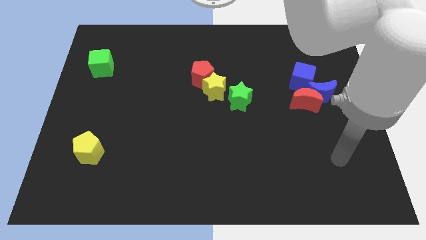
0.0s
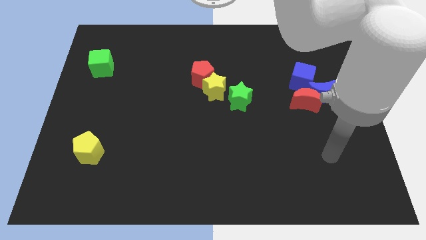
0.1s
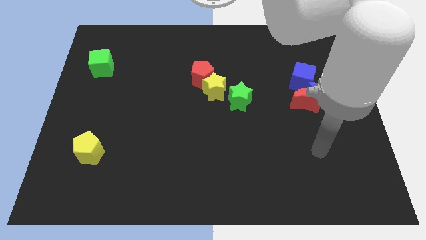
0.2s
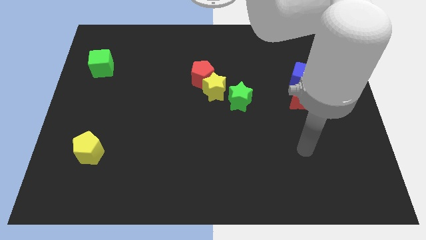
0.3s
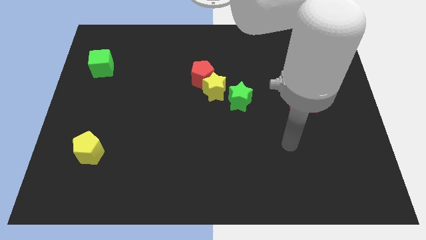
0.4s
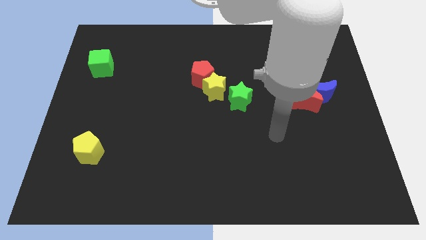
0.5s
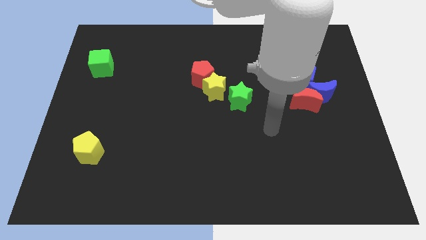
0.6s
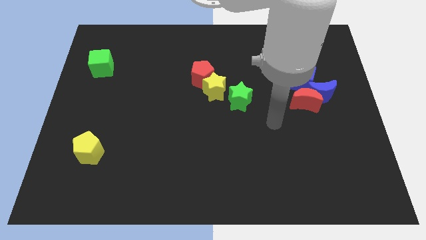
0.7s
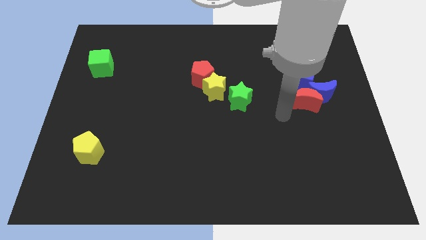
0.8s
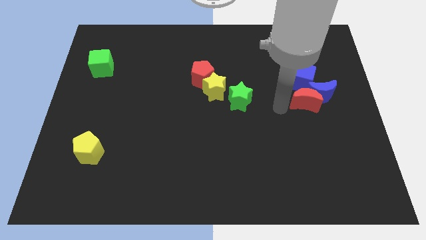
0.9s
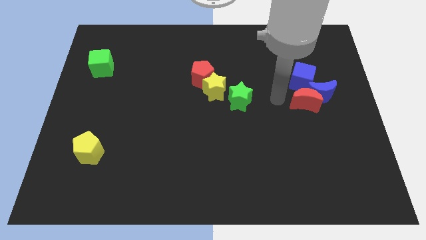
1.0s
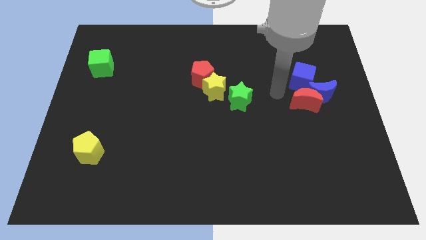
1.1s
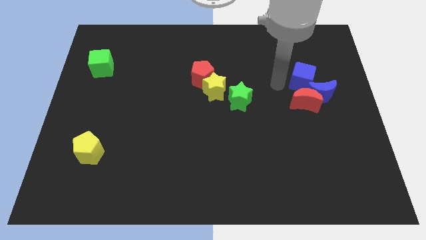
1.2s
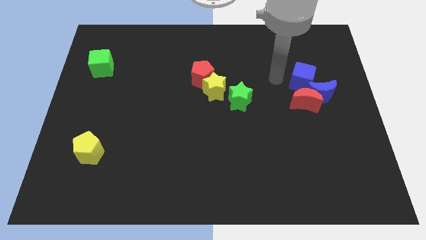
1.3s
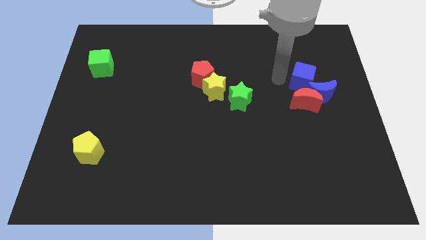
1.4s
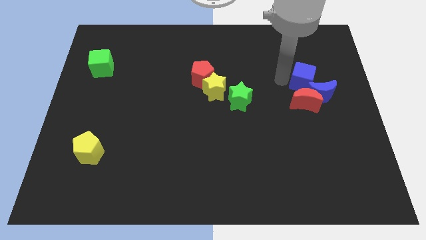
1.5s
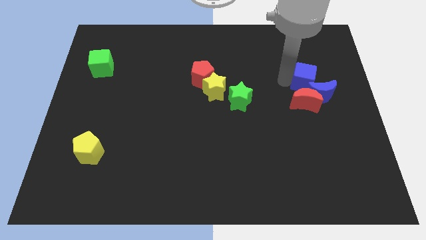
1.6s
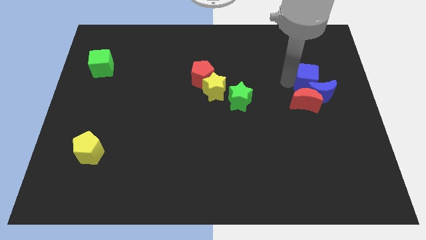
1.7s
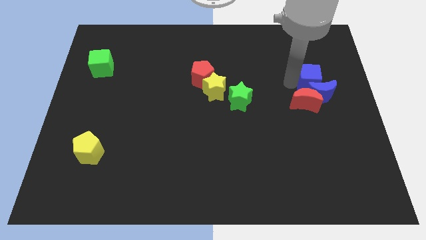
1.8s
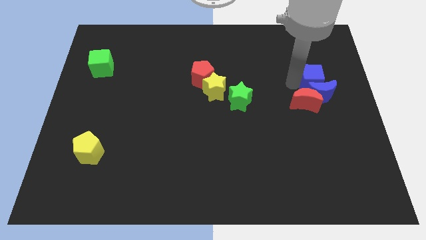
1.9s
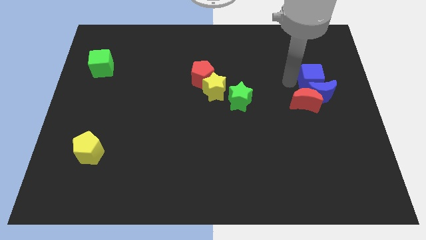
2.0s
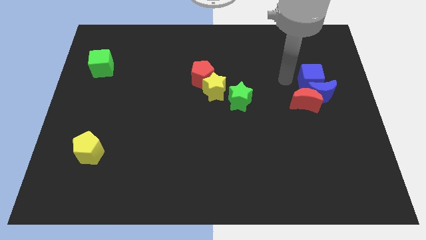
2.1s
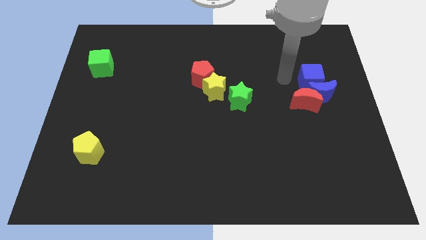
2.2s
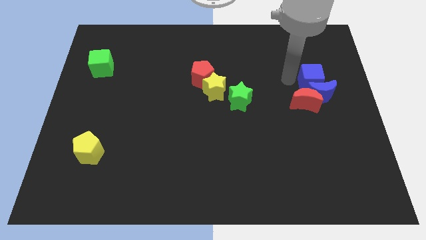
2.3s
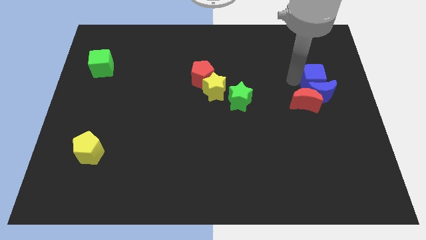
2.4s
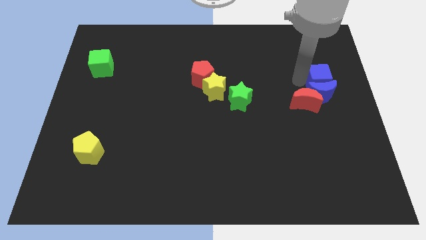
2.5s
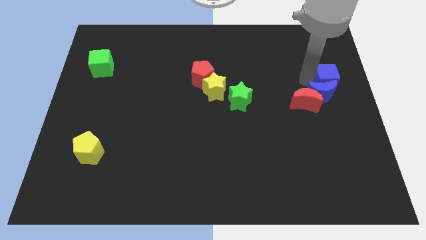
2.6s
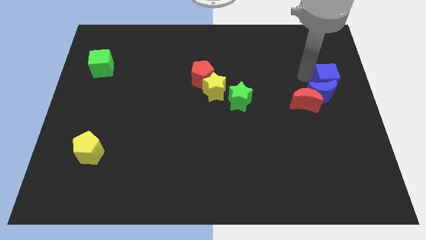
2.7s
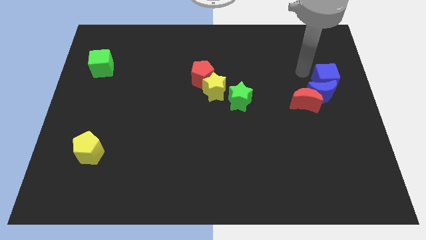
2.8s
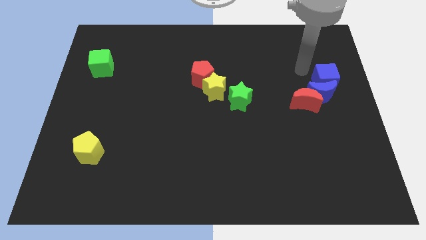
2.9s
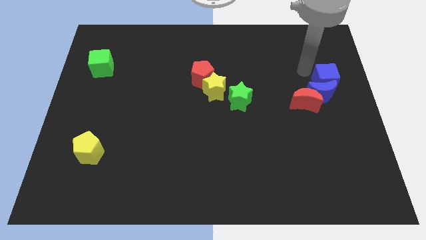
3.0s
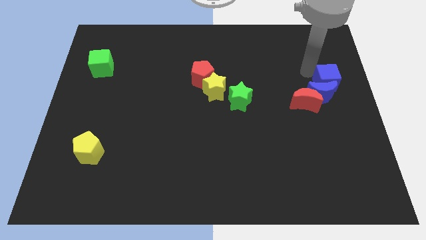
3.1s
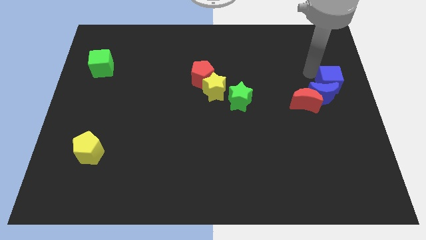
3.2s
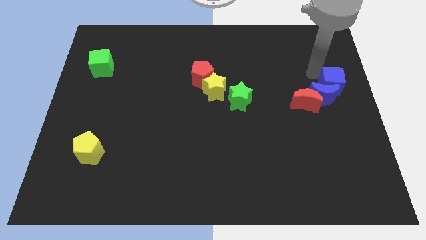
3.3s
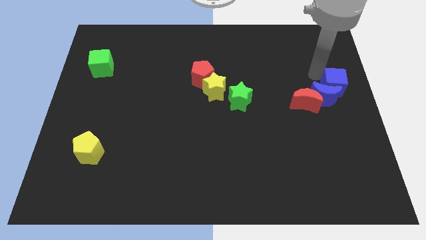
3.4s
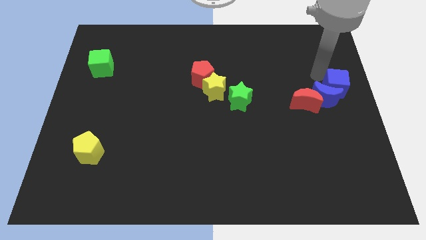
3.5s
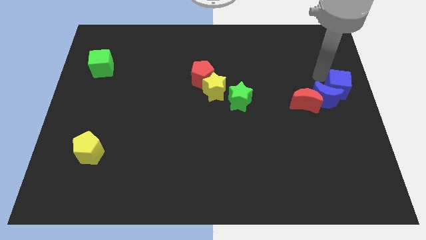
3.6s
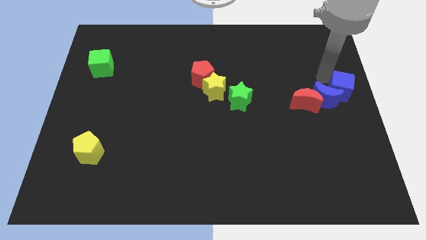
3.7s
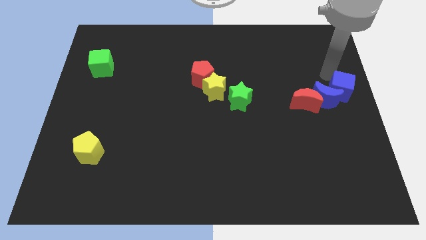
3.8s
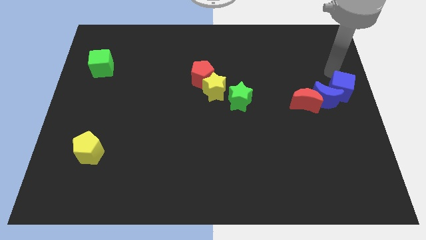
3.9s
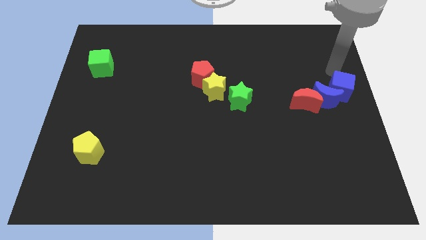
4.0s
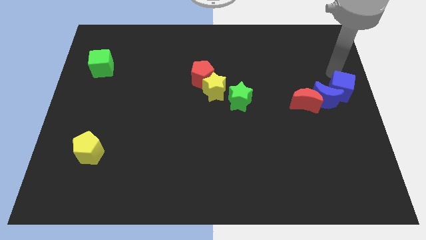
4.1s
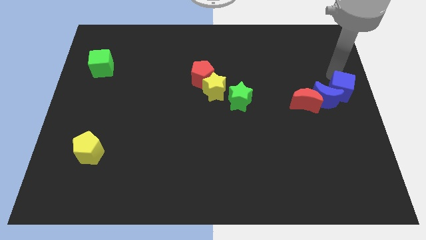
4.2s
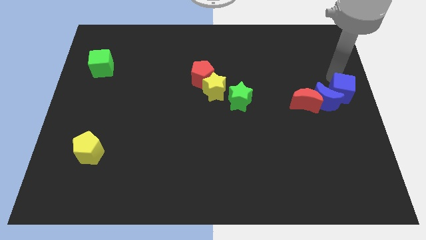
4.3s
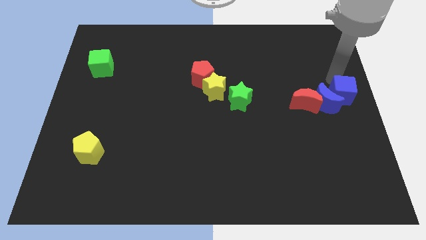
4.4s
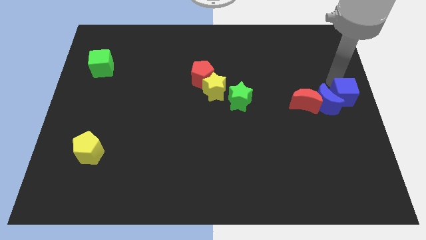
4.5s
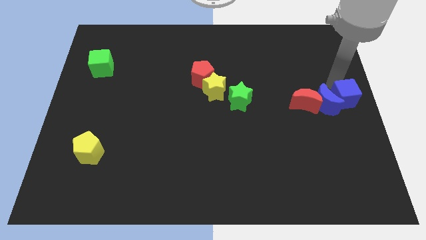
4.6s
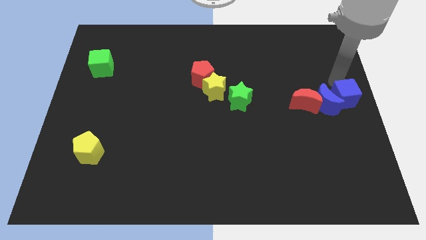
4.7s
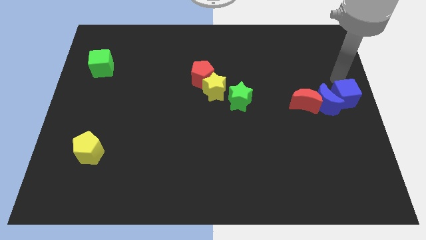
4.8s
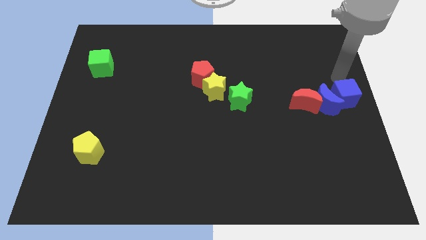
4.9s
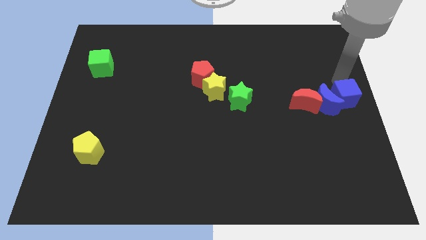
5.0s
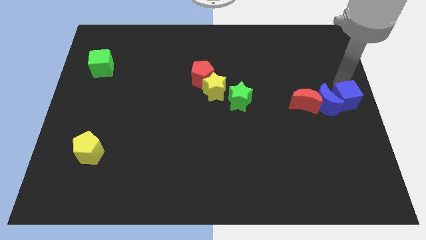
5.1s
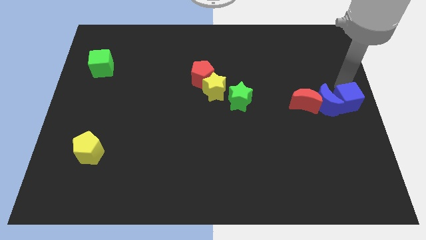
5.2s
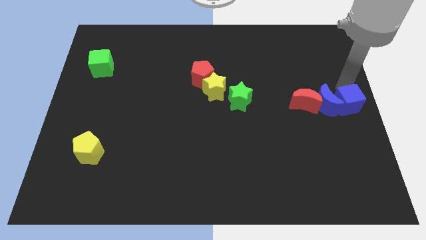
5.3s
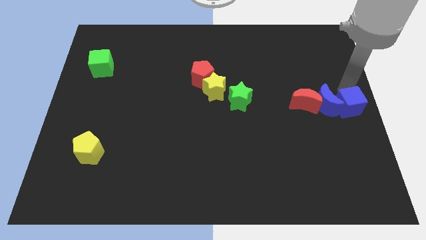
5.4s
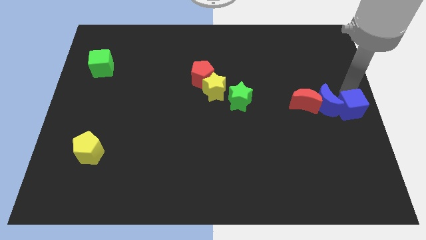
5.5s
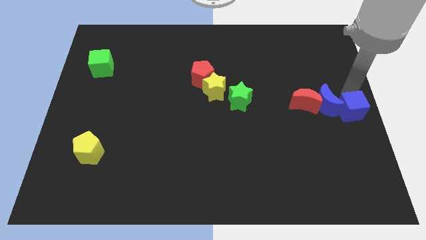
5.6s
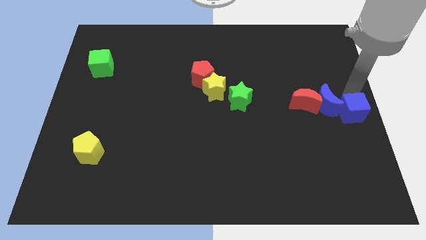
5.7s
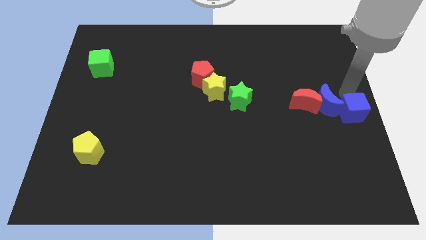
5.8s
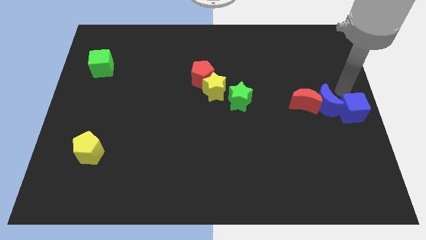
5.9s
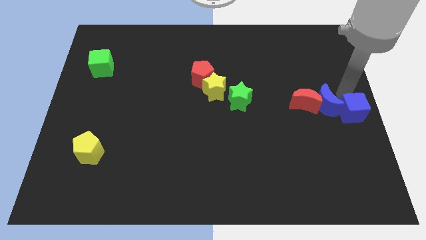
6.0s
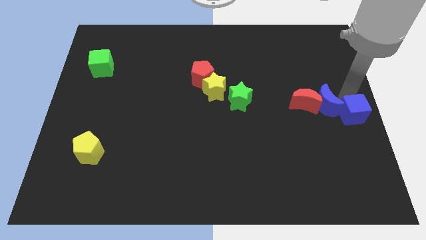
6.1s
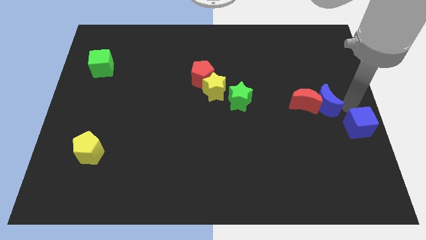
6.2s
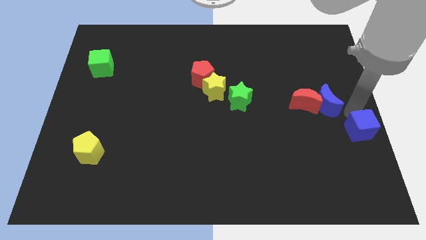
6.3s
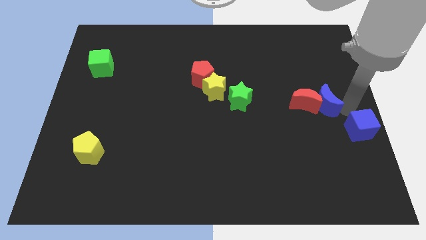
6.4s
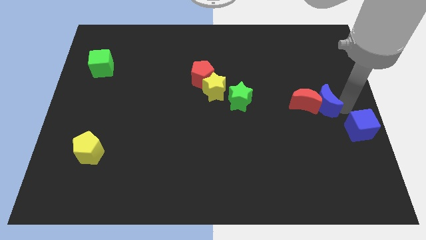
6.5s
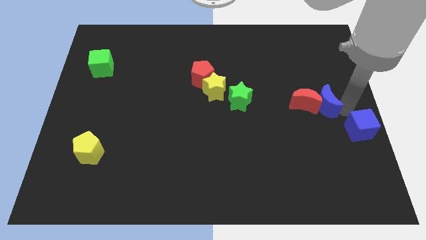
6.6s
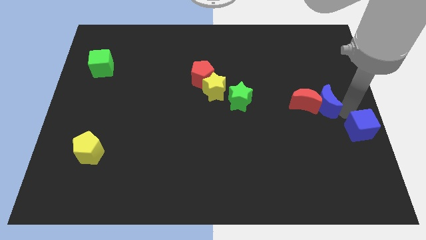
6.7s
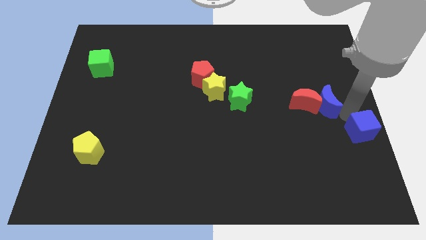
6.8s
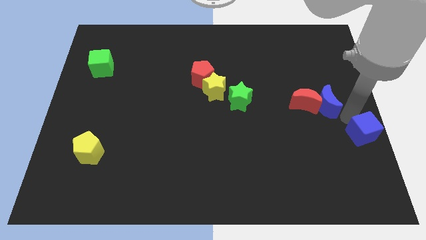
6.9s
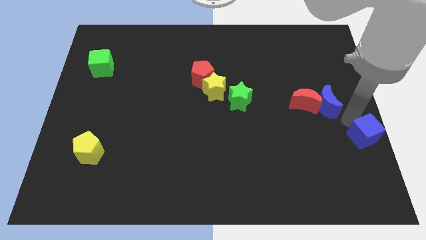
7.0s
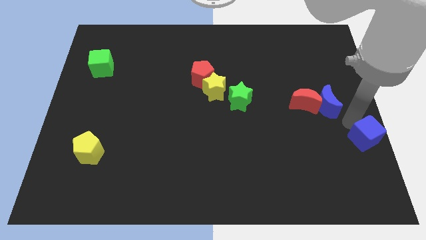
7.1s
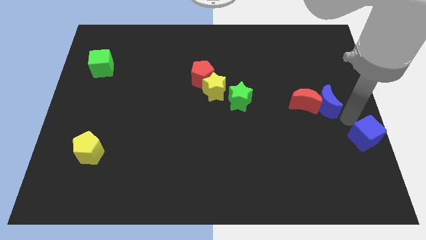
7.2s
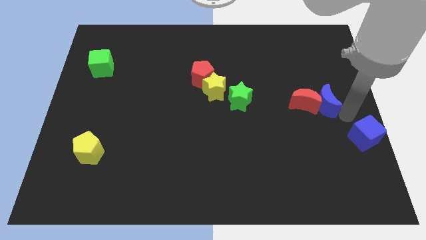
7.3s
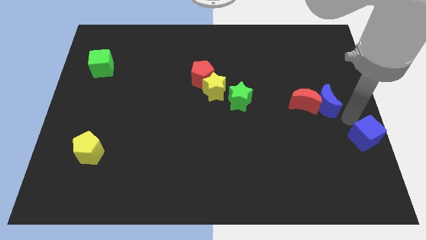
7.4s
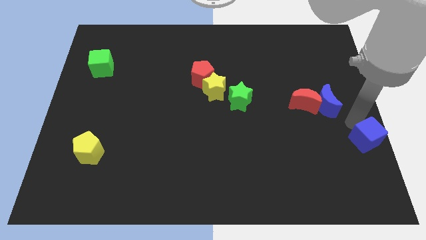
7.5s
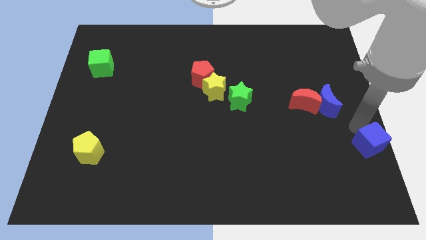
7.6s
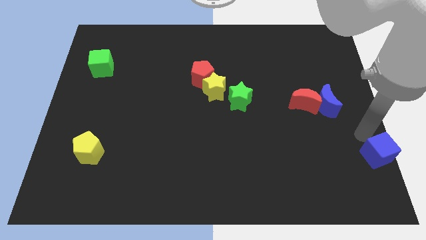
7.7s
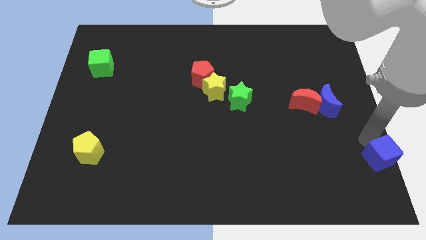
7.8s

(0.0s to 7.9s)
put the blue cube to the bottom right
